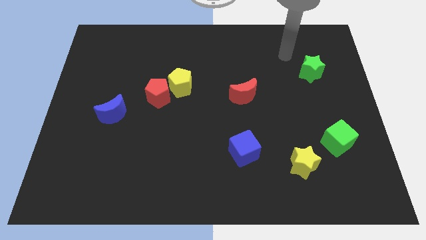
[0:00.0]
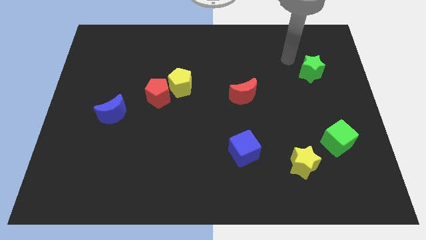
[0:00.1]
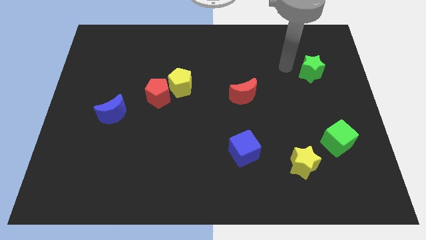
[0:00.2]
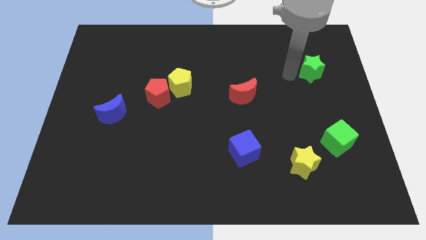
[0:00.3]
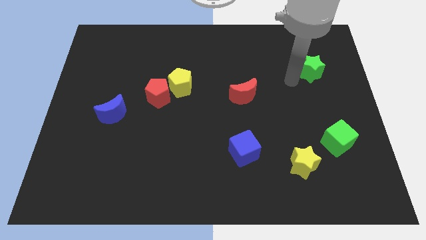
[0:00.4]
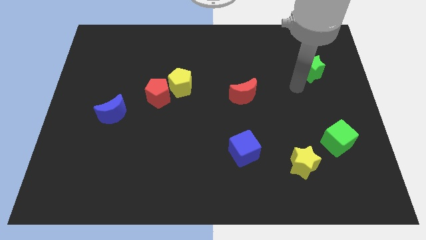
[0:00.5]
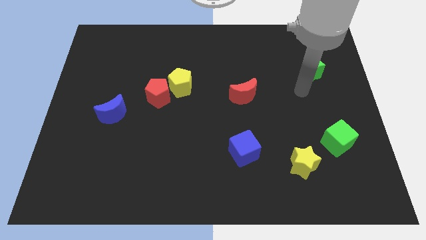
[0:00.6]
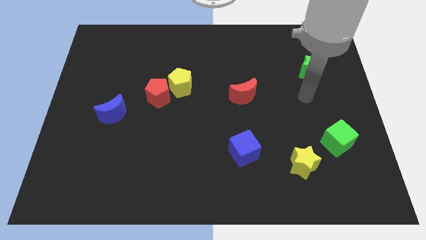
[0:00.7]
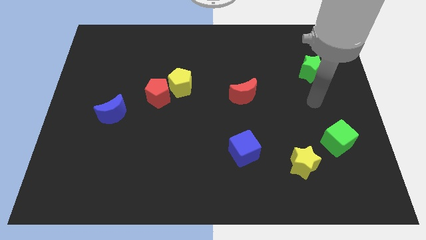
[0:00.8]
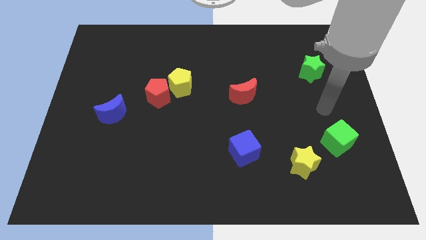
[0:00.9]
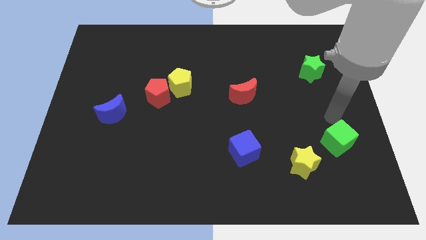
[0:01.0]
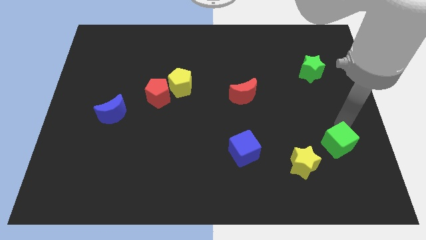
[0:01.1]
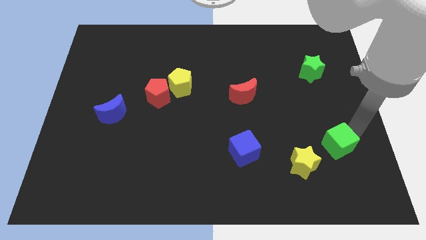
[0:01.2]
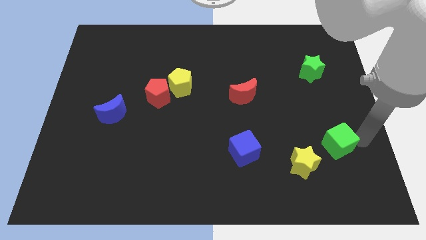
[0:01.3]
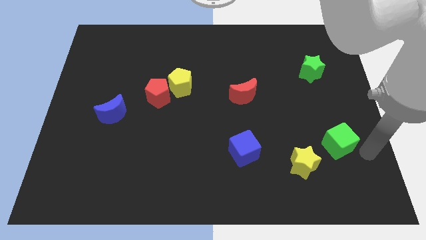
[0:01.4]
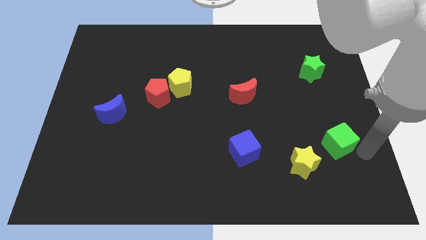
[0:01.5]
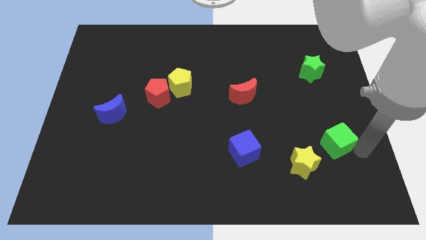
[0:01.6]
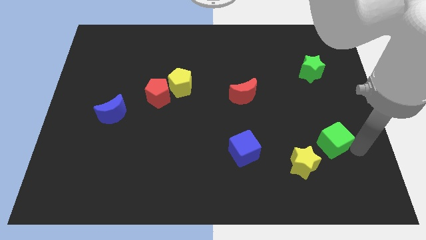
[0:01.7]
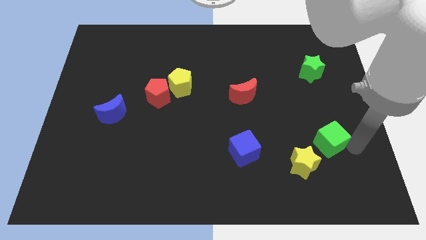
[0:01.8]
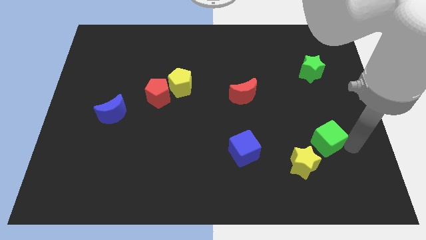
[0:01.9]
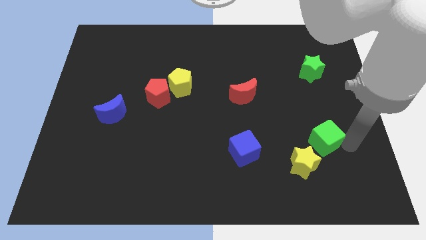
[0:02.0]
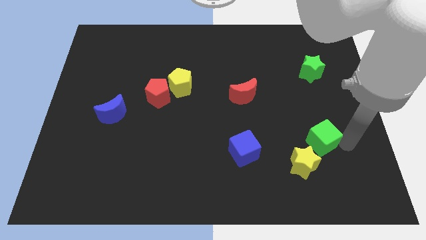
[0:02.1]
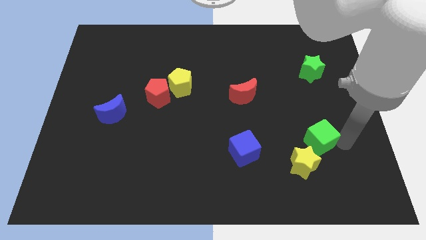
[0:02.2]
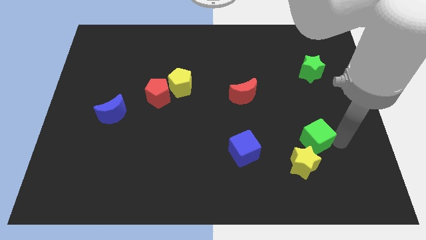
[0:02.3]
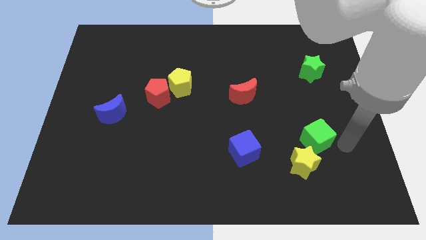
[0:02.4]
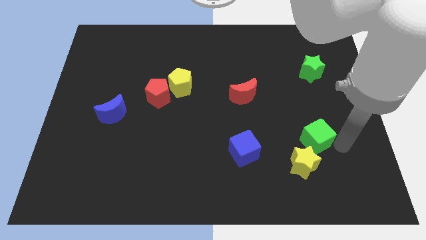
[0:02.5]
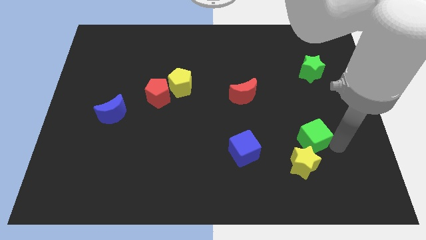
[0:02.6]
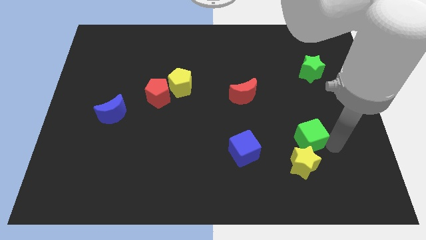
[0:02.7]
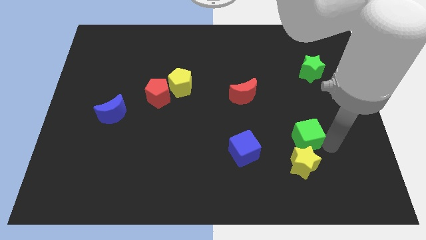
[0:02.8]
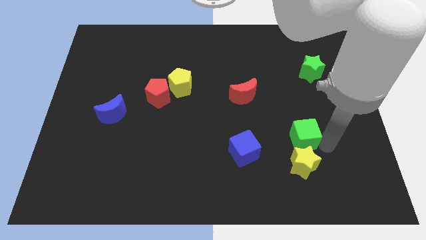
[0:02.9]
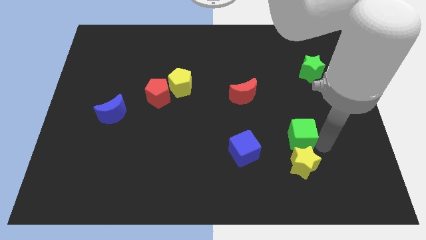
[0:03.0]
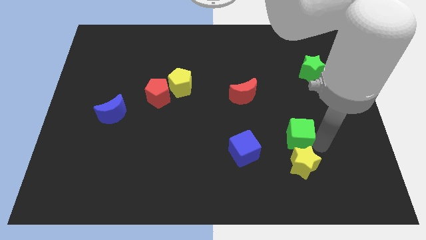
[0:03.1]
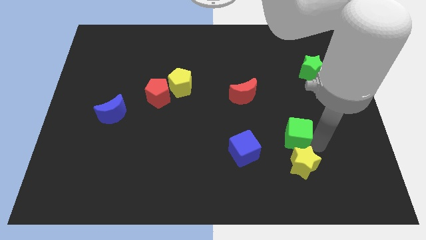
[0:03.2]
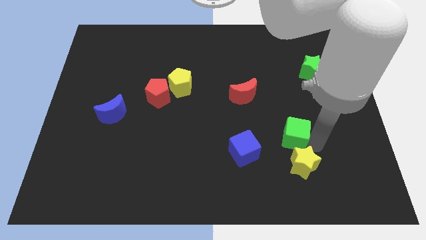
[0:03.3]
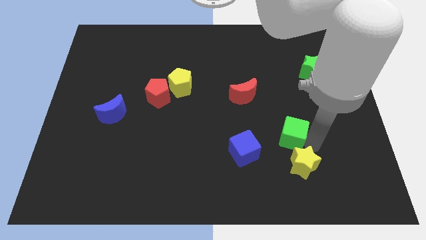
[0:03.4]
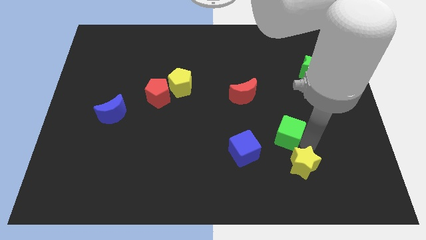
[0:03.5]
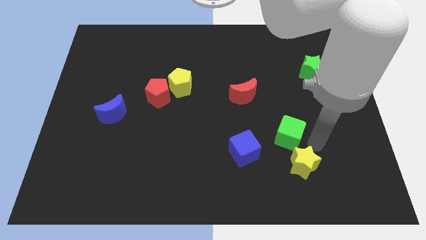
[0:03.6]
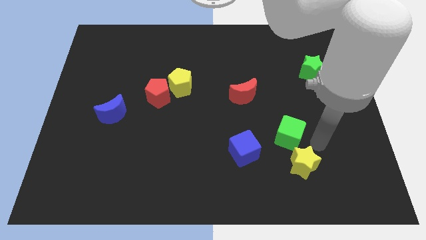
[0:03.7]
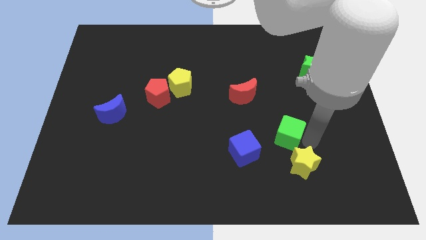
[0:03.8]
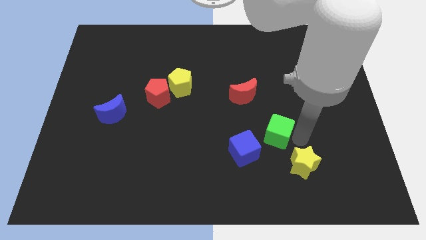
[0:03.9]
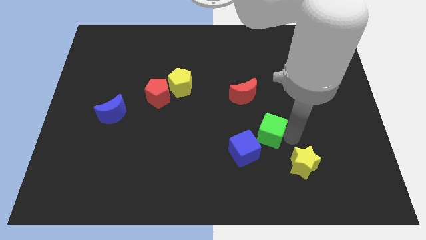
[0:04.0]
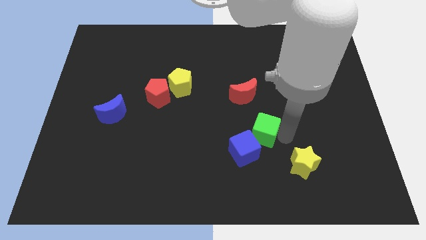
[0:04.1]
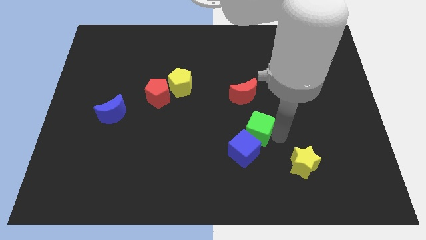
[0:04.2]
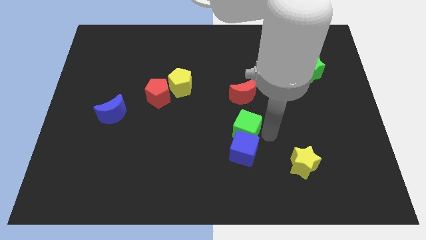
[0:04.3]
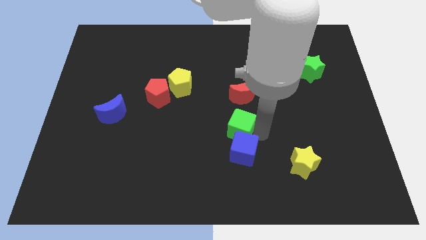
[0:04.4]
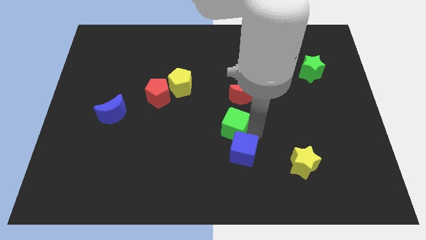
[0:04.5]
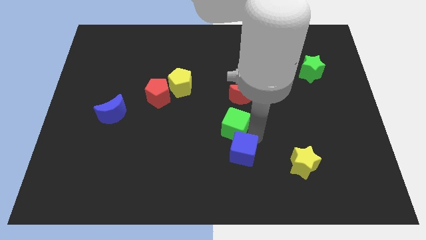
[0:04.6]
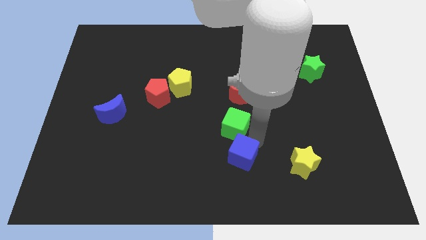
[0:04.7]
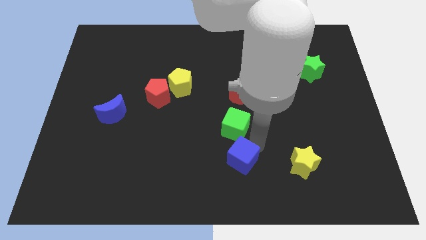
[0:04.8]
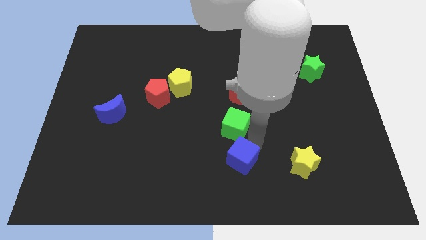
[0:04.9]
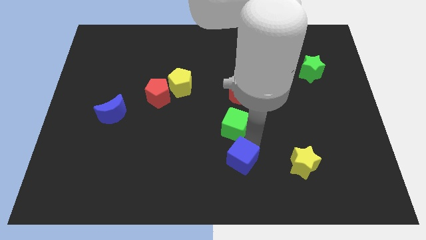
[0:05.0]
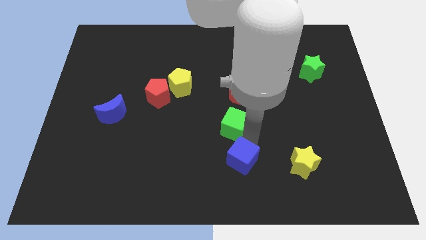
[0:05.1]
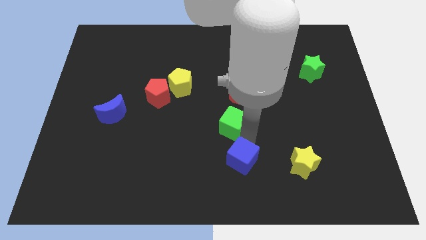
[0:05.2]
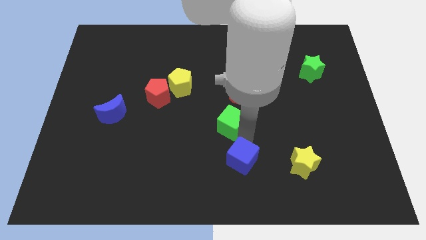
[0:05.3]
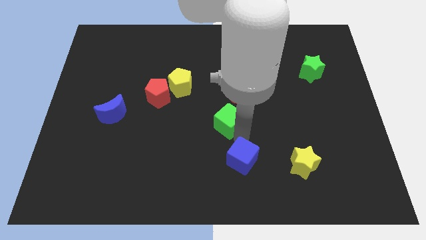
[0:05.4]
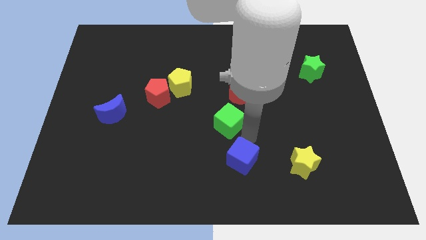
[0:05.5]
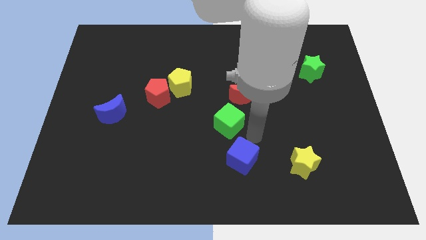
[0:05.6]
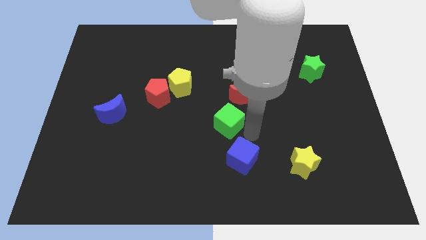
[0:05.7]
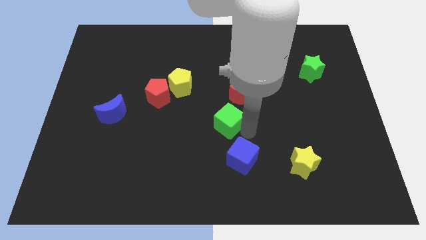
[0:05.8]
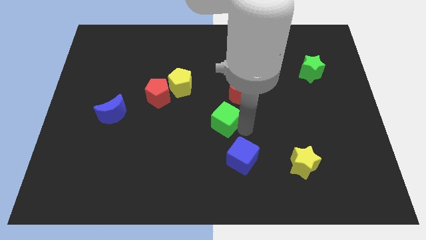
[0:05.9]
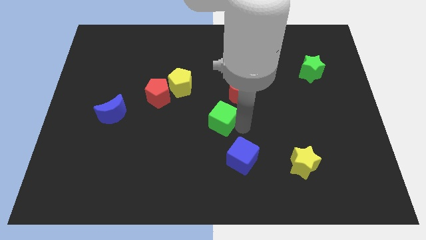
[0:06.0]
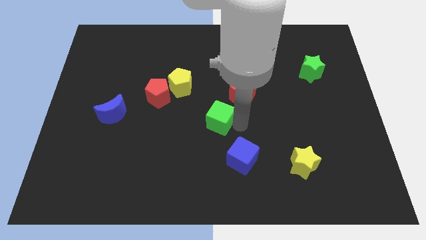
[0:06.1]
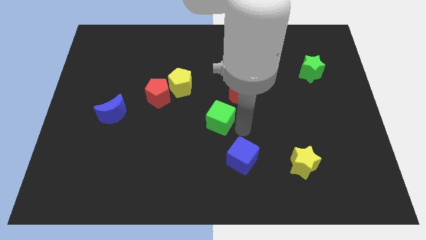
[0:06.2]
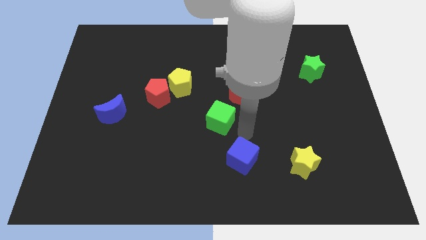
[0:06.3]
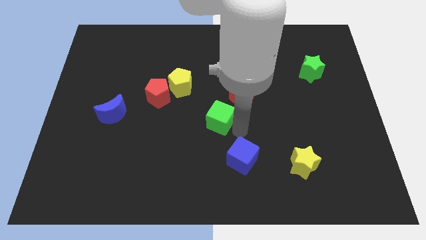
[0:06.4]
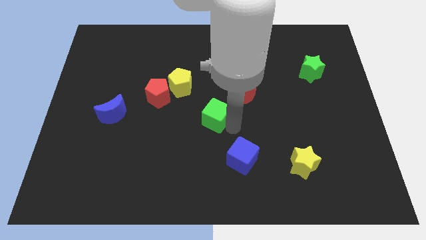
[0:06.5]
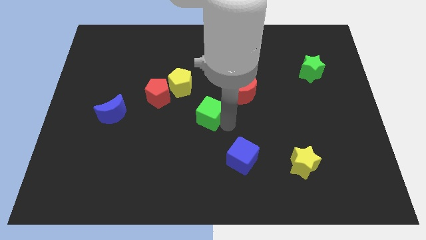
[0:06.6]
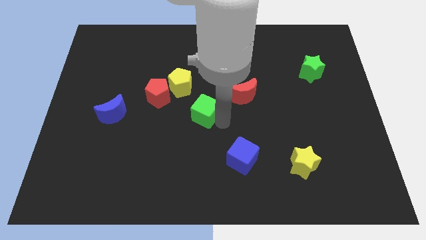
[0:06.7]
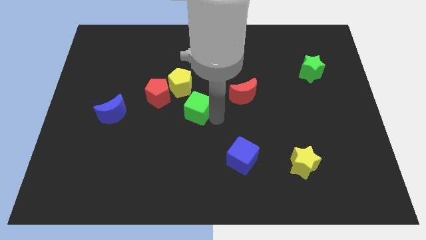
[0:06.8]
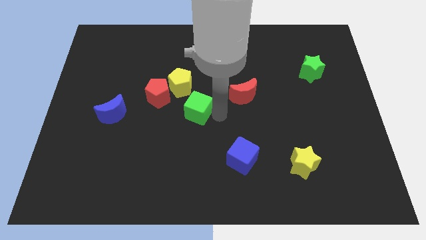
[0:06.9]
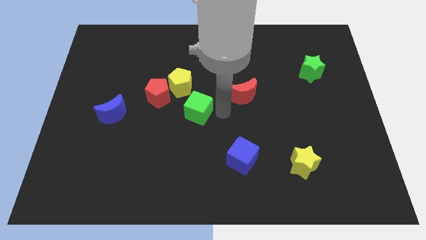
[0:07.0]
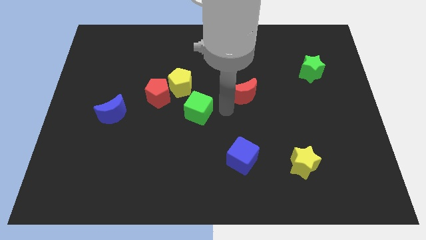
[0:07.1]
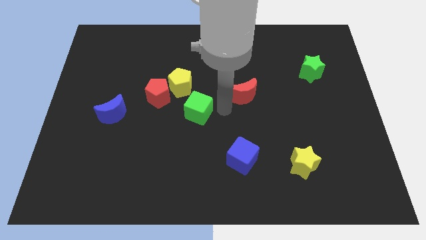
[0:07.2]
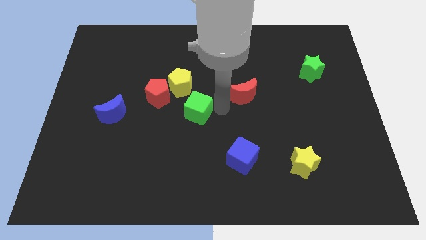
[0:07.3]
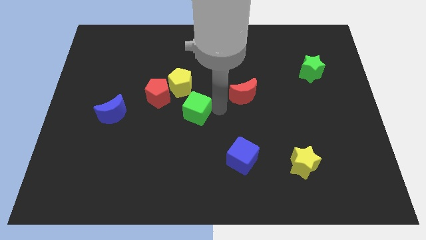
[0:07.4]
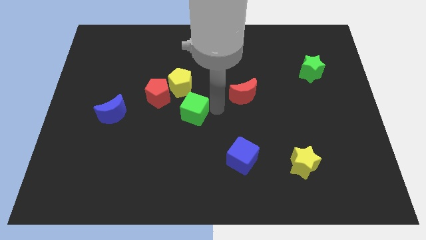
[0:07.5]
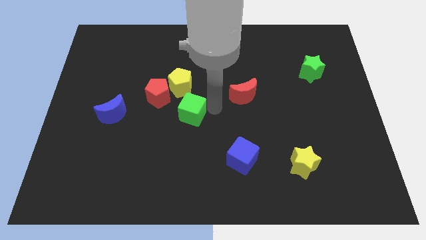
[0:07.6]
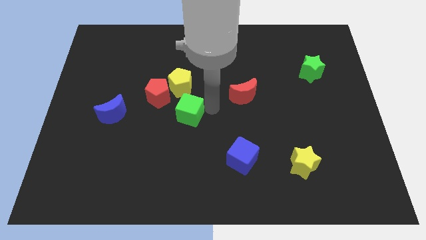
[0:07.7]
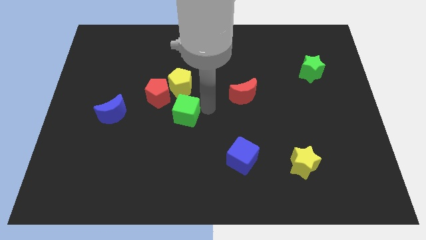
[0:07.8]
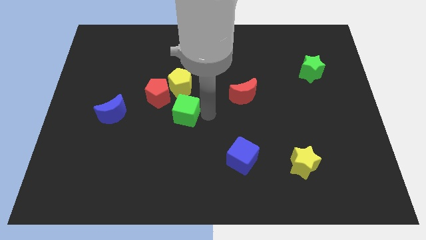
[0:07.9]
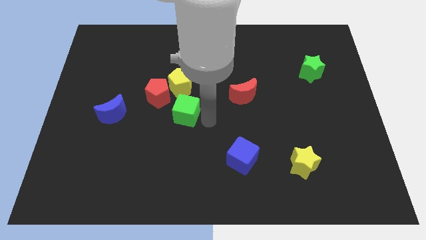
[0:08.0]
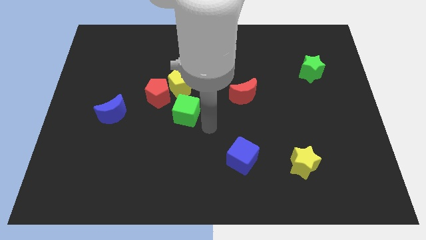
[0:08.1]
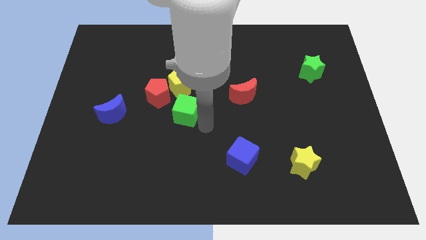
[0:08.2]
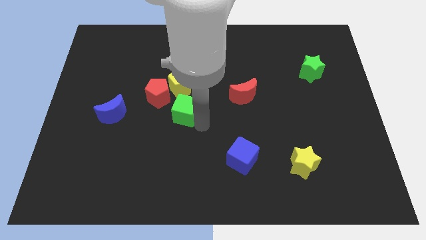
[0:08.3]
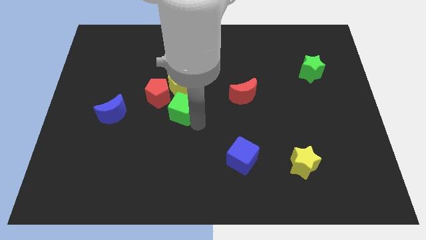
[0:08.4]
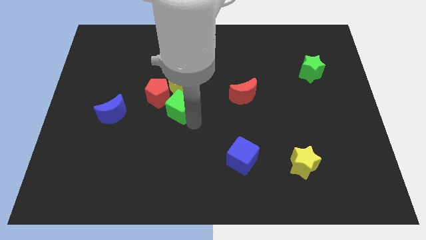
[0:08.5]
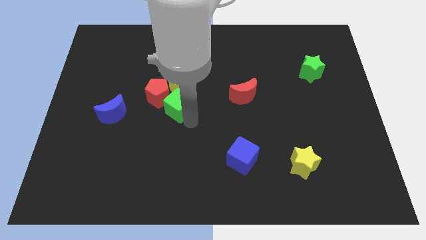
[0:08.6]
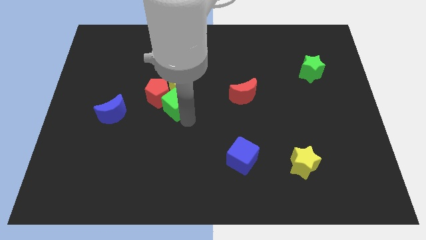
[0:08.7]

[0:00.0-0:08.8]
put the green cube to the red pentagon
